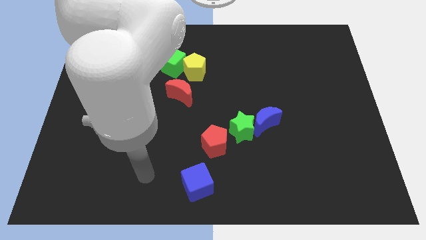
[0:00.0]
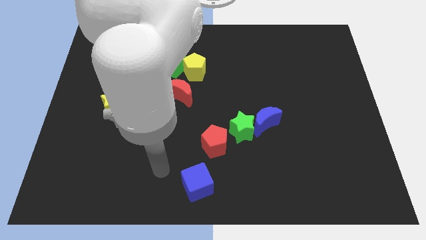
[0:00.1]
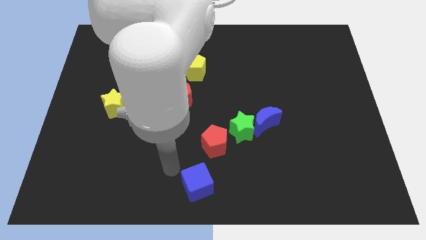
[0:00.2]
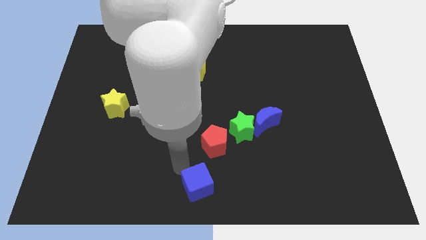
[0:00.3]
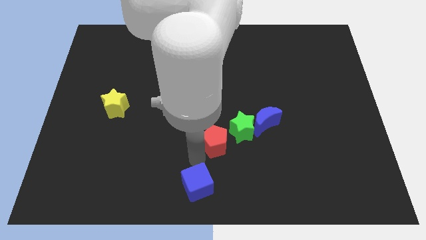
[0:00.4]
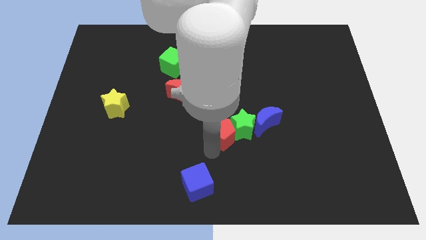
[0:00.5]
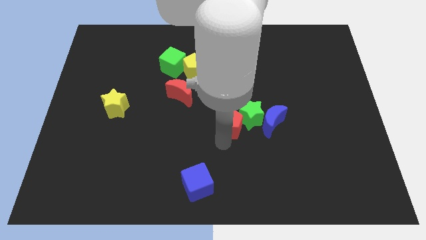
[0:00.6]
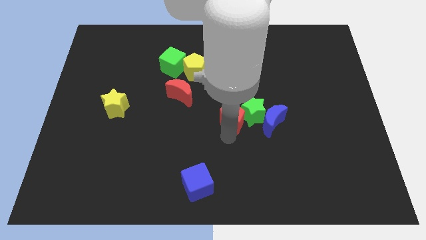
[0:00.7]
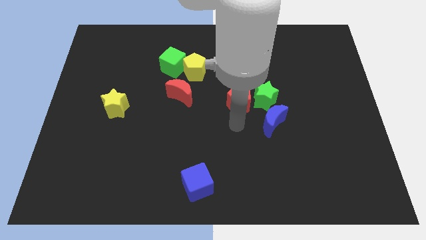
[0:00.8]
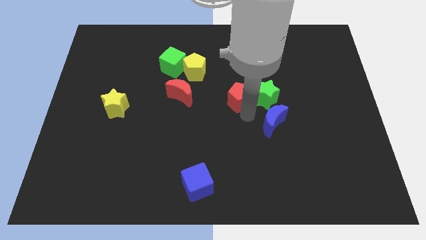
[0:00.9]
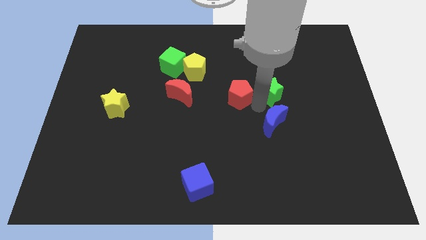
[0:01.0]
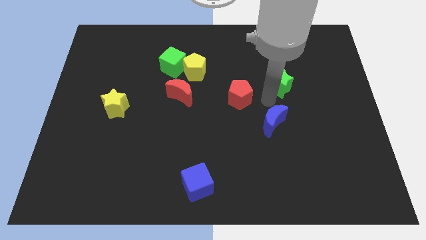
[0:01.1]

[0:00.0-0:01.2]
move the blue moon away from the green star

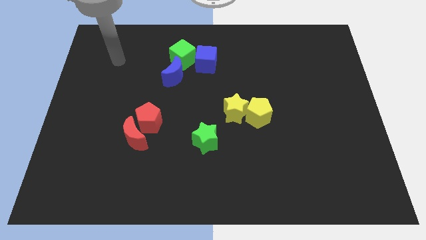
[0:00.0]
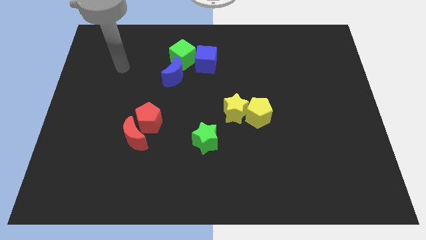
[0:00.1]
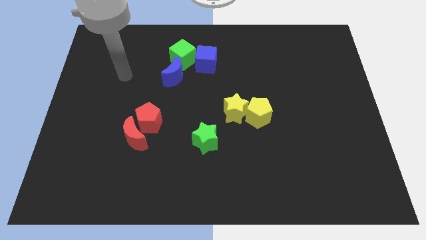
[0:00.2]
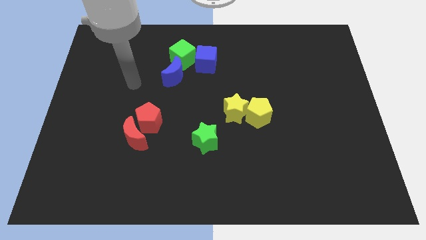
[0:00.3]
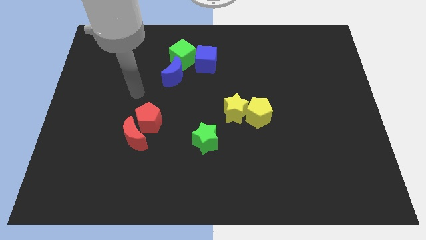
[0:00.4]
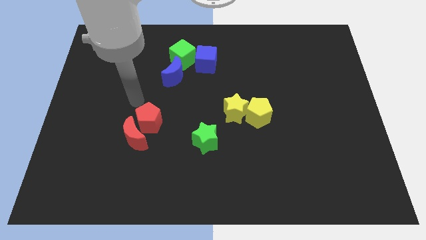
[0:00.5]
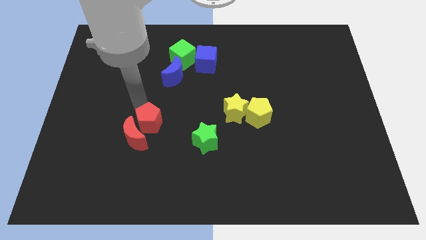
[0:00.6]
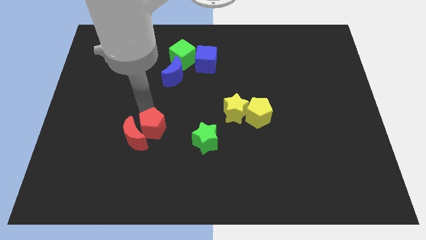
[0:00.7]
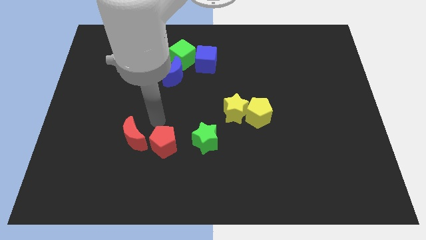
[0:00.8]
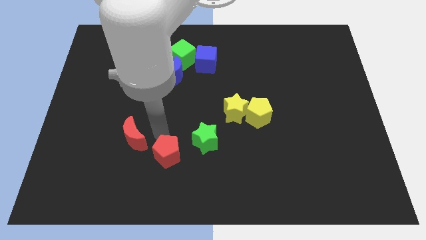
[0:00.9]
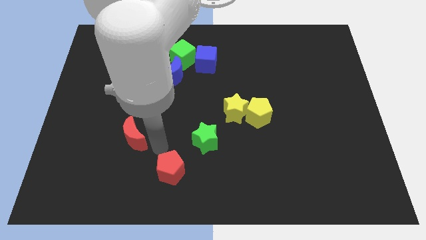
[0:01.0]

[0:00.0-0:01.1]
pull the red moon apart from the red pentagon

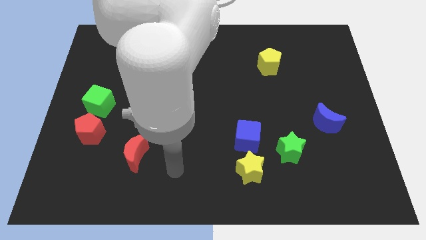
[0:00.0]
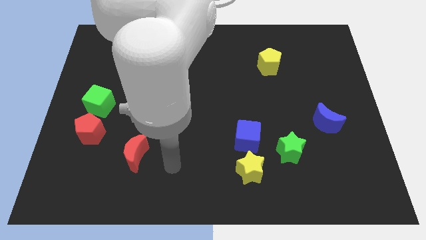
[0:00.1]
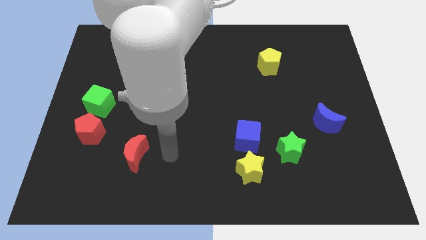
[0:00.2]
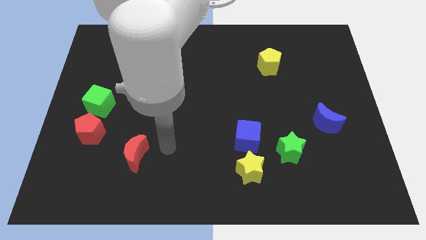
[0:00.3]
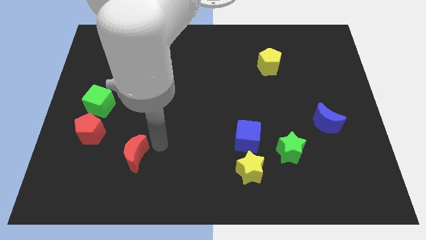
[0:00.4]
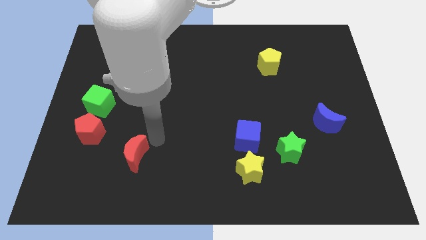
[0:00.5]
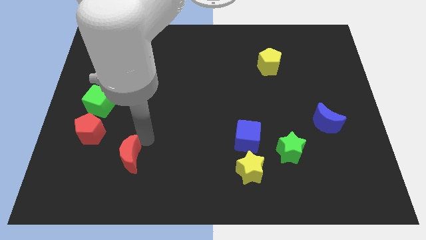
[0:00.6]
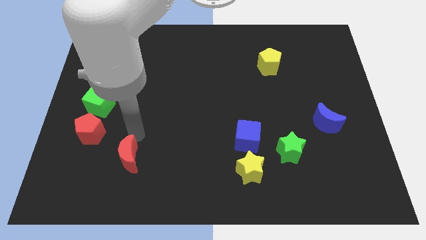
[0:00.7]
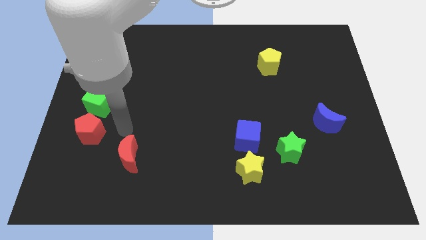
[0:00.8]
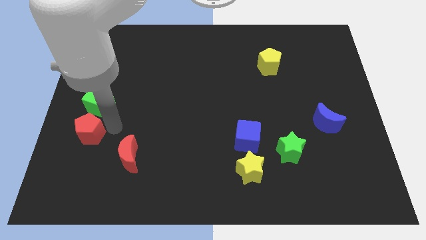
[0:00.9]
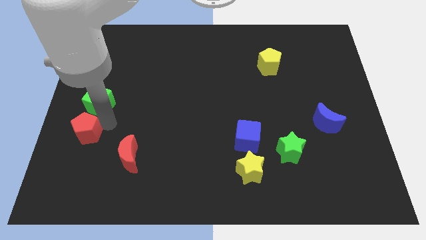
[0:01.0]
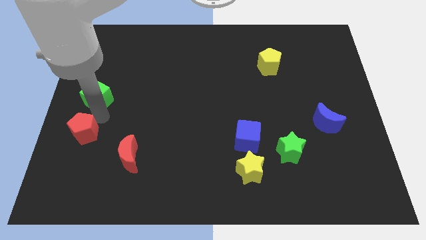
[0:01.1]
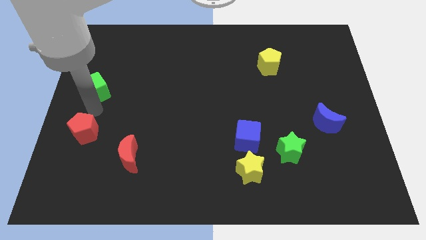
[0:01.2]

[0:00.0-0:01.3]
separate the red pentagon from the green cube

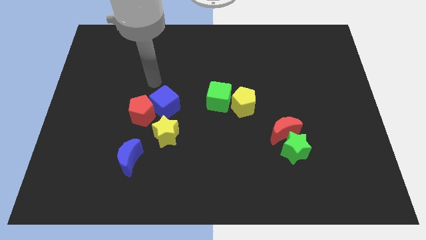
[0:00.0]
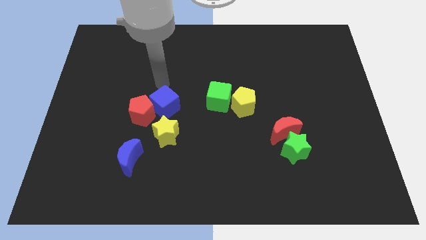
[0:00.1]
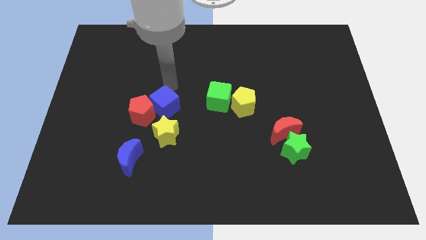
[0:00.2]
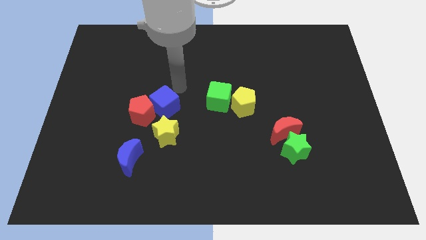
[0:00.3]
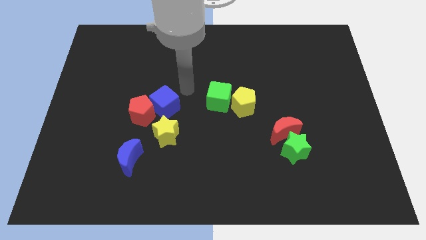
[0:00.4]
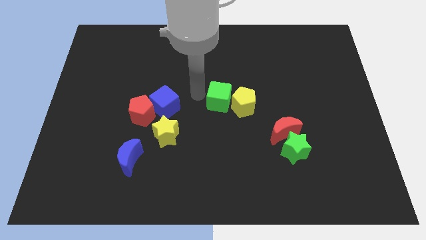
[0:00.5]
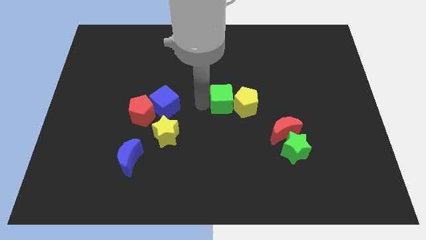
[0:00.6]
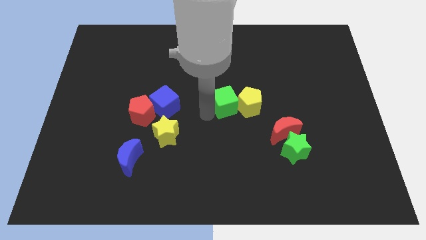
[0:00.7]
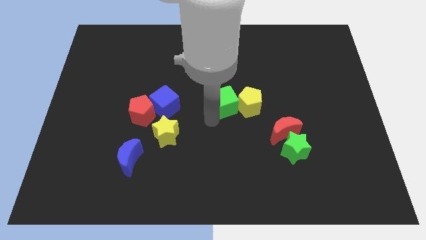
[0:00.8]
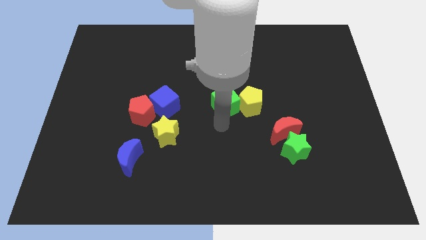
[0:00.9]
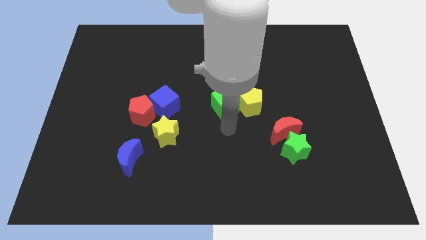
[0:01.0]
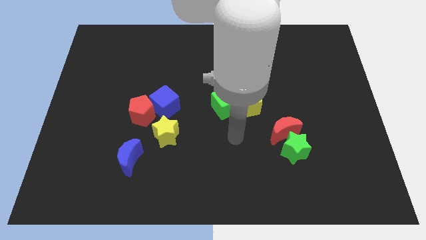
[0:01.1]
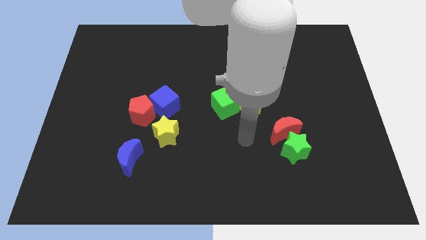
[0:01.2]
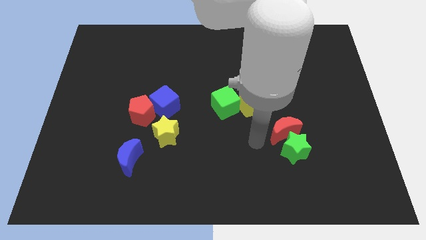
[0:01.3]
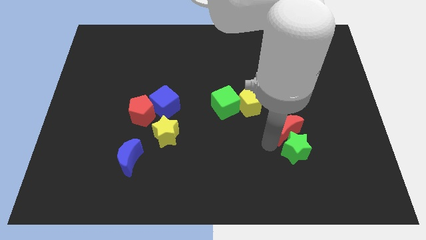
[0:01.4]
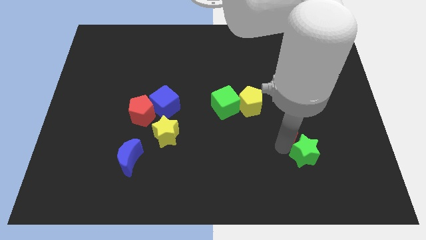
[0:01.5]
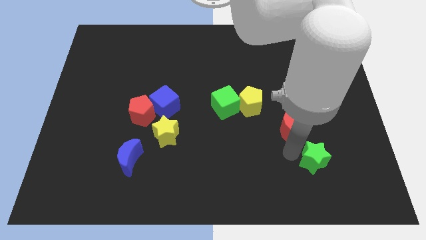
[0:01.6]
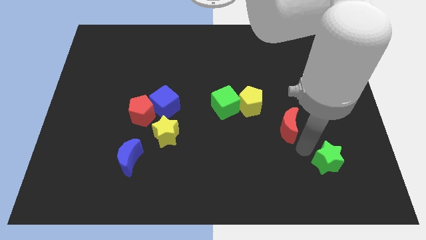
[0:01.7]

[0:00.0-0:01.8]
separate the red moon from the green star

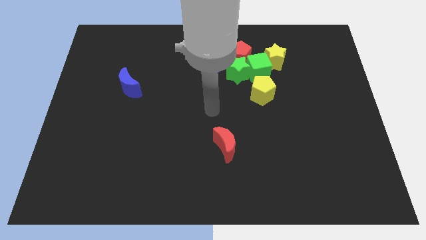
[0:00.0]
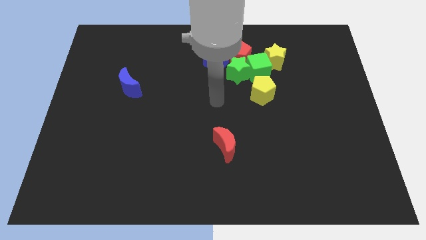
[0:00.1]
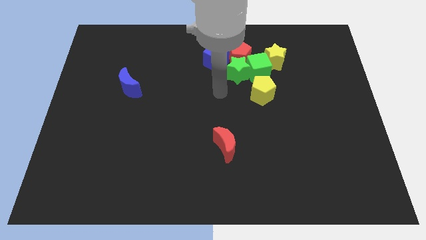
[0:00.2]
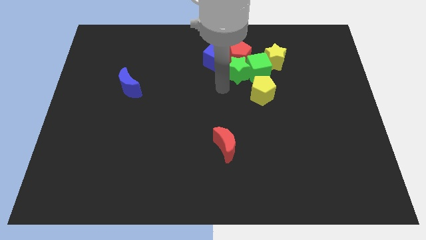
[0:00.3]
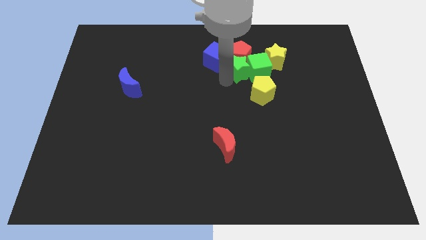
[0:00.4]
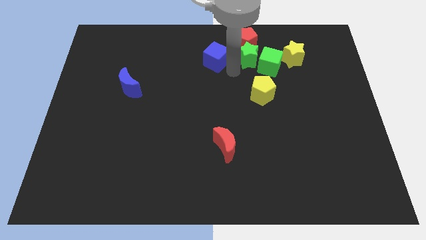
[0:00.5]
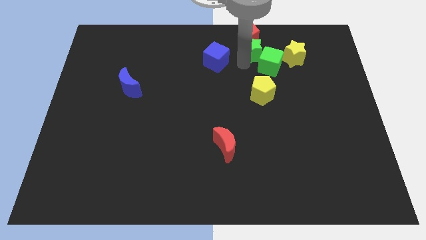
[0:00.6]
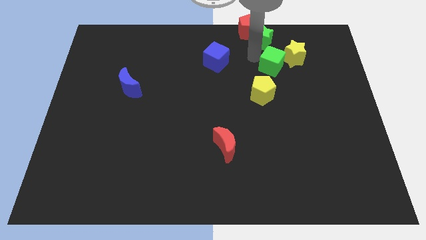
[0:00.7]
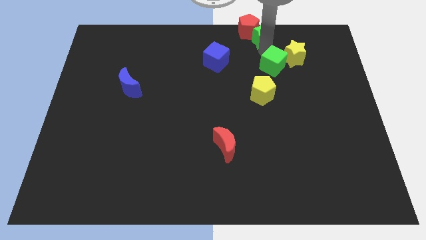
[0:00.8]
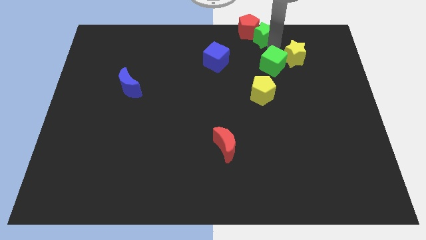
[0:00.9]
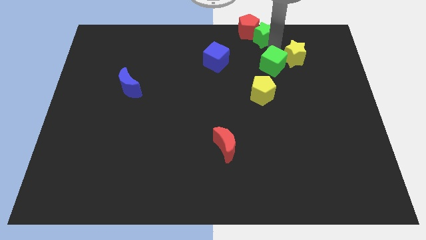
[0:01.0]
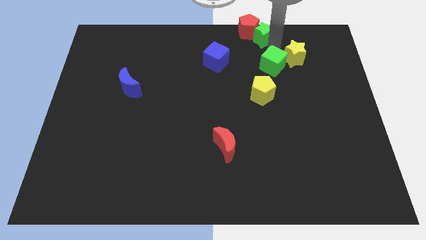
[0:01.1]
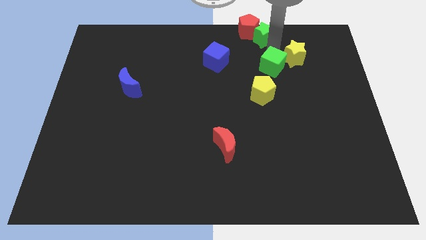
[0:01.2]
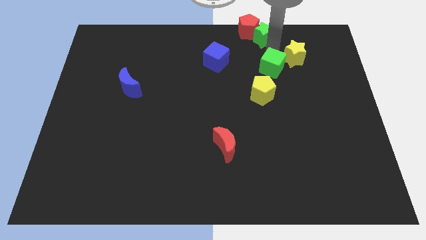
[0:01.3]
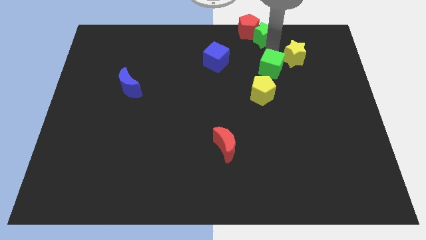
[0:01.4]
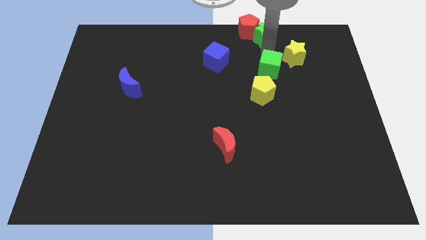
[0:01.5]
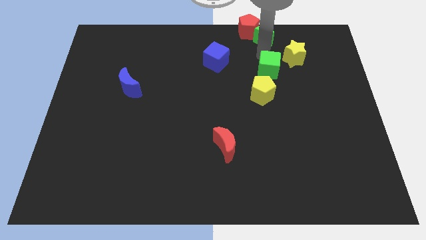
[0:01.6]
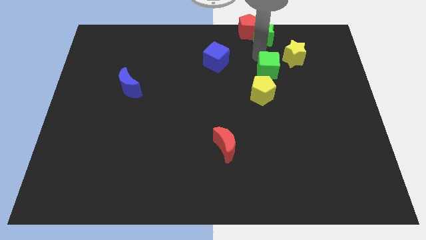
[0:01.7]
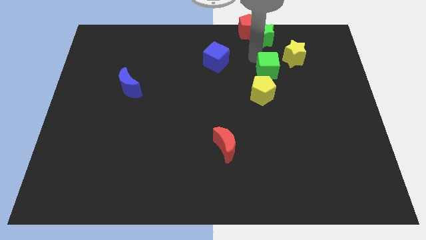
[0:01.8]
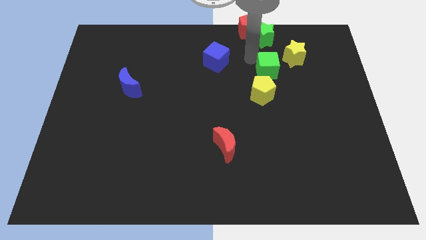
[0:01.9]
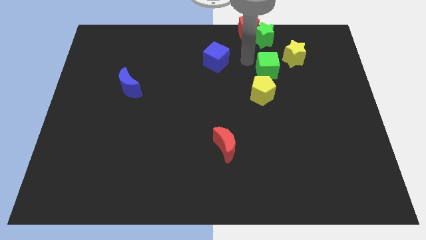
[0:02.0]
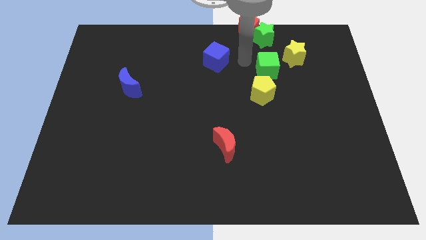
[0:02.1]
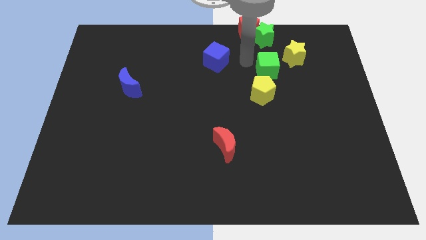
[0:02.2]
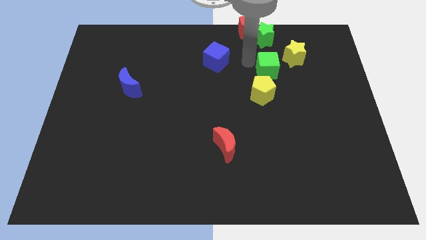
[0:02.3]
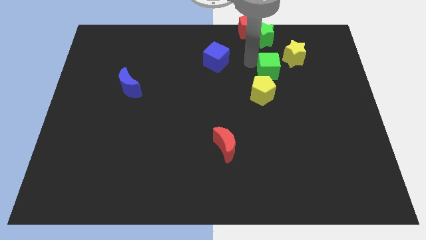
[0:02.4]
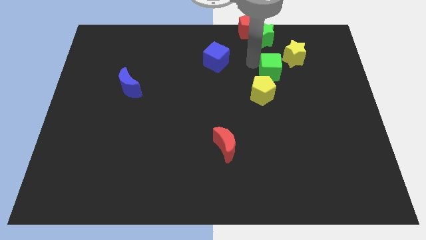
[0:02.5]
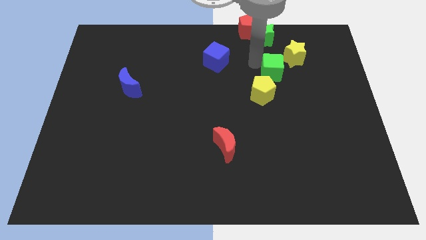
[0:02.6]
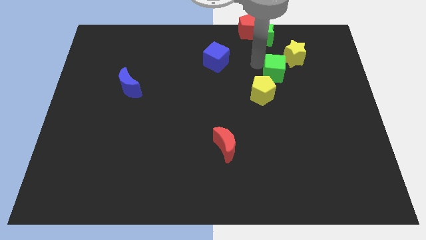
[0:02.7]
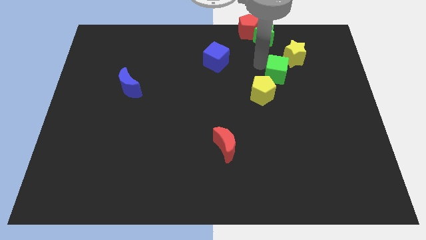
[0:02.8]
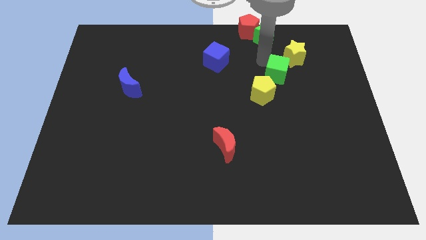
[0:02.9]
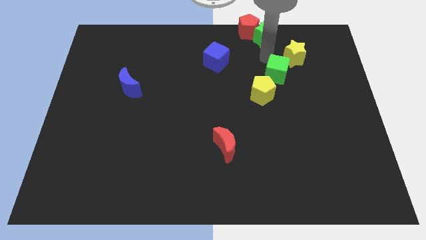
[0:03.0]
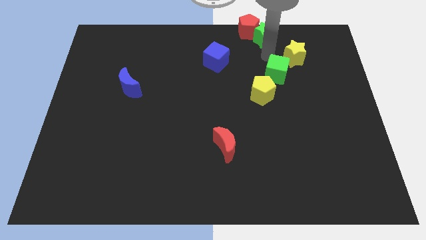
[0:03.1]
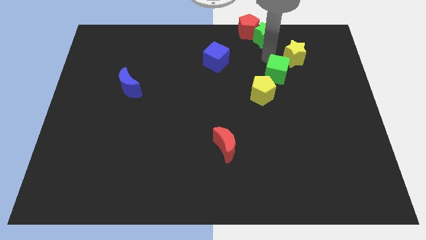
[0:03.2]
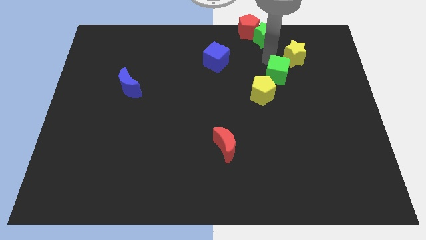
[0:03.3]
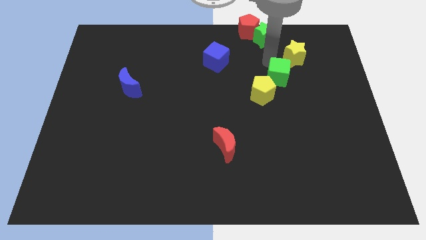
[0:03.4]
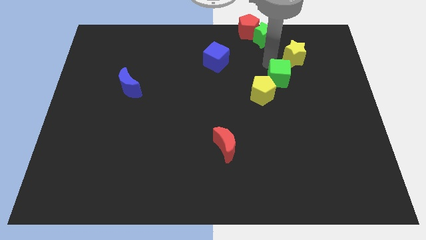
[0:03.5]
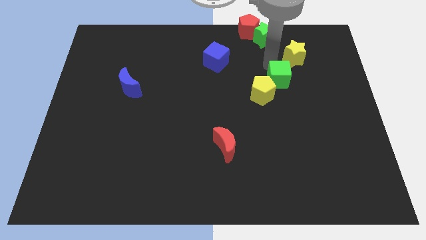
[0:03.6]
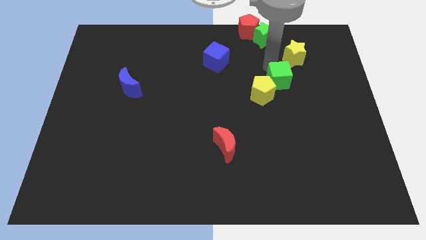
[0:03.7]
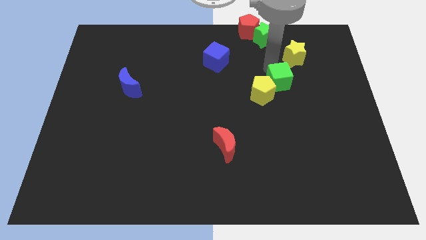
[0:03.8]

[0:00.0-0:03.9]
separate the green cube from the clump

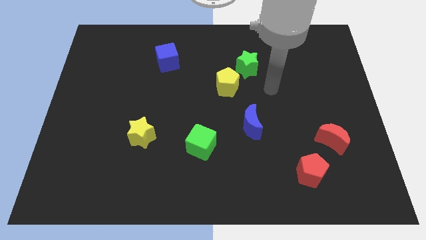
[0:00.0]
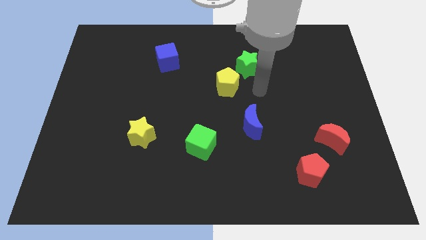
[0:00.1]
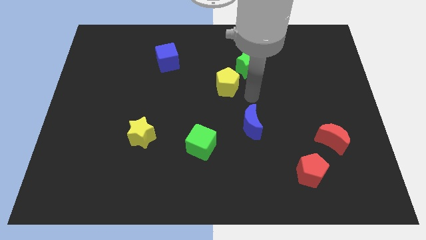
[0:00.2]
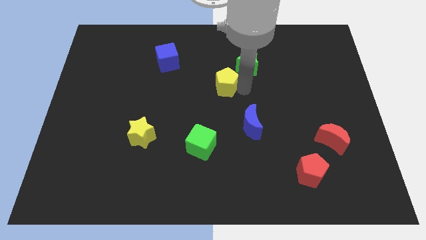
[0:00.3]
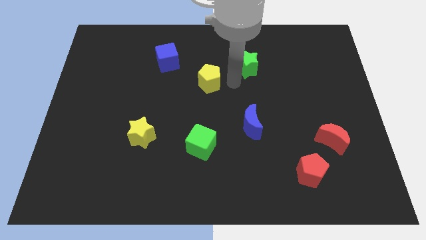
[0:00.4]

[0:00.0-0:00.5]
pull the green star apart from the yellow pentagon
